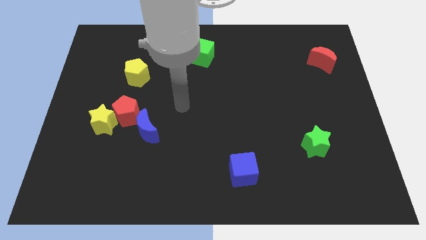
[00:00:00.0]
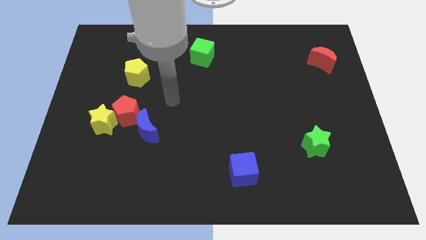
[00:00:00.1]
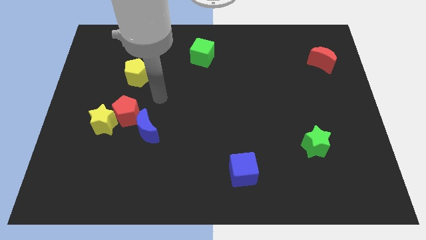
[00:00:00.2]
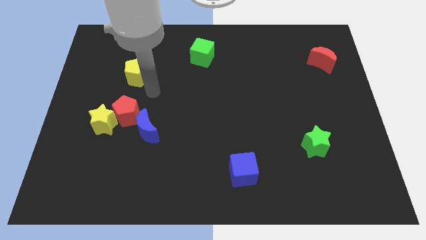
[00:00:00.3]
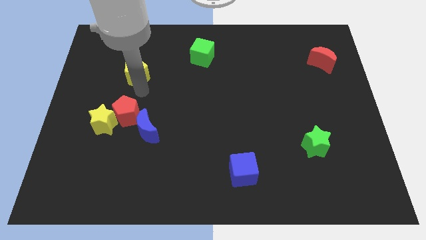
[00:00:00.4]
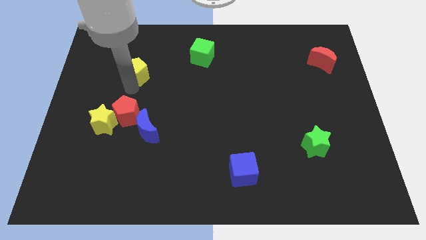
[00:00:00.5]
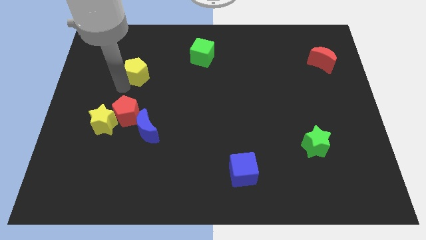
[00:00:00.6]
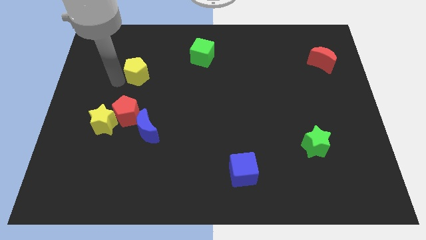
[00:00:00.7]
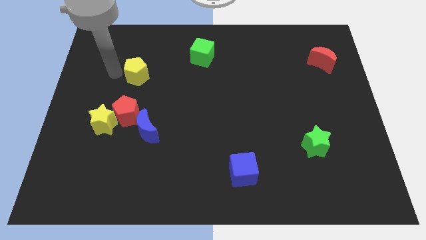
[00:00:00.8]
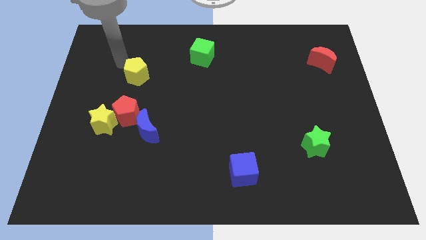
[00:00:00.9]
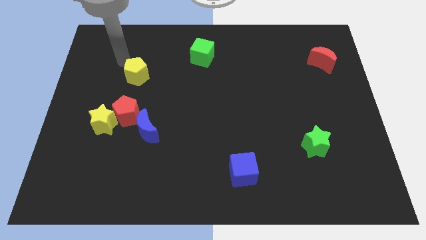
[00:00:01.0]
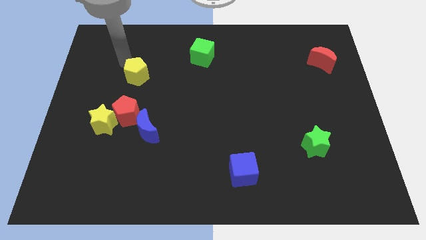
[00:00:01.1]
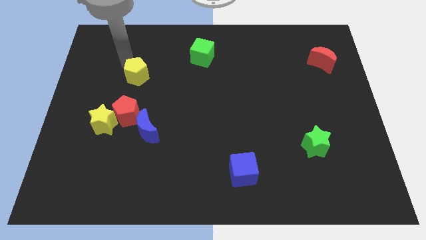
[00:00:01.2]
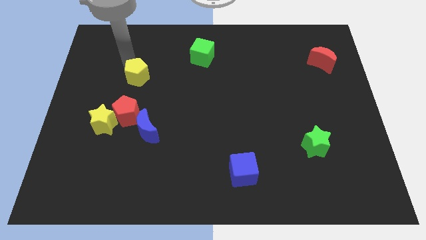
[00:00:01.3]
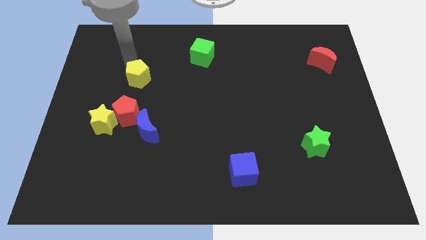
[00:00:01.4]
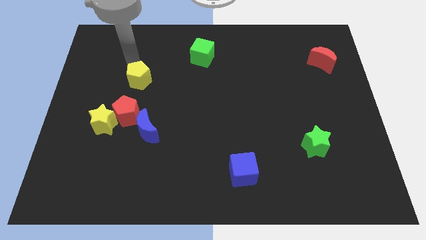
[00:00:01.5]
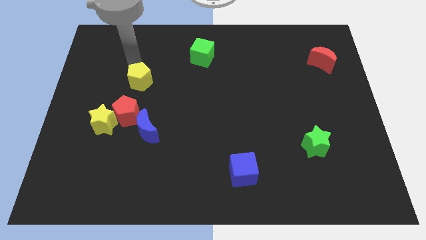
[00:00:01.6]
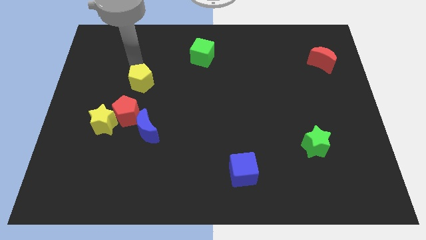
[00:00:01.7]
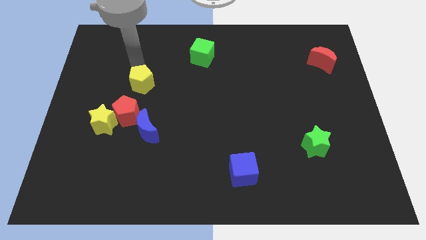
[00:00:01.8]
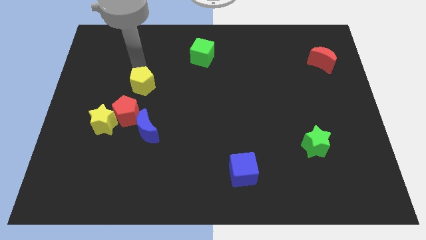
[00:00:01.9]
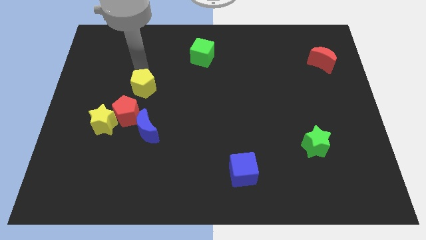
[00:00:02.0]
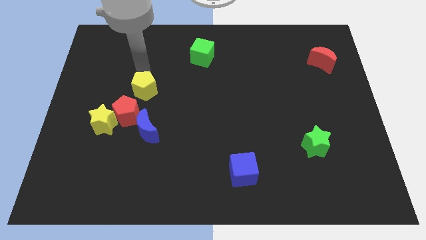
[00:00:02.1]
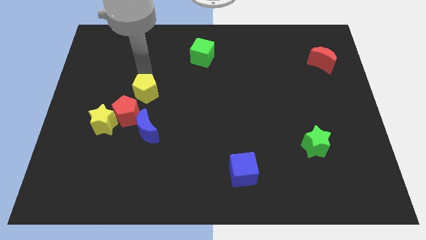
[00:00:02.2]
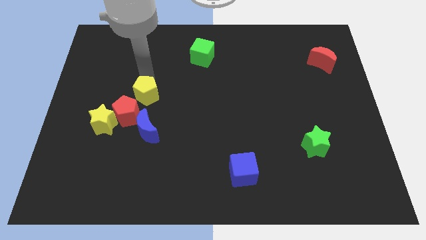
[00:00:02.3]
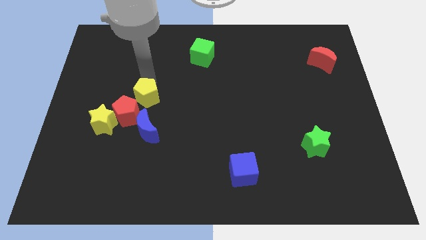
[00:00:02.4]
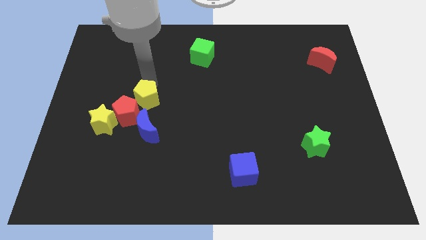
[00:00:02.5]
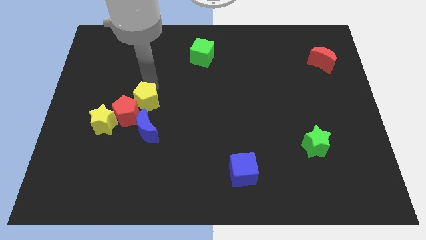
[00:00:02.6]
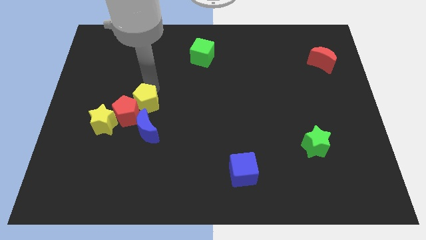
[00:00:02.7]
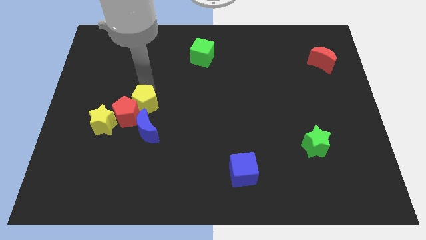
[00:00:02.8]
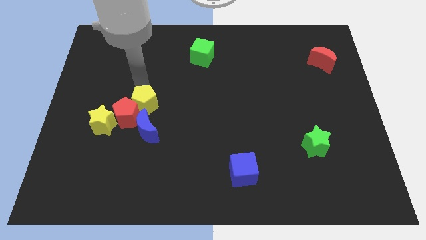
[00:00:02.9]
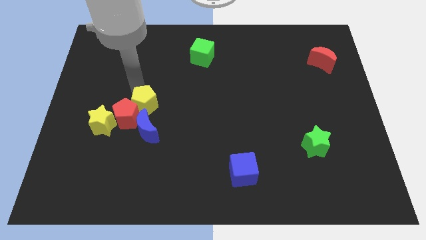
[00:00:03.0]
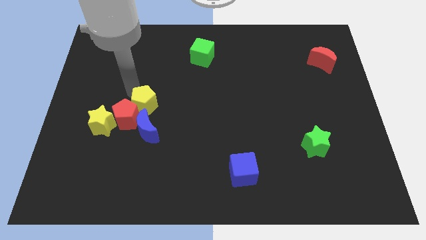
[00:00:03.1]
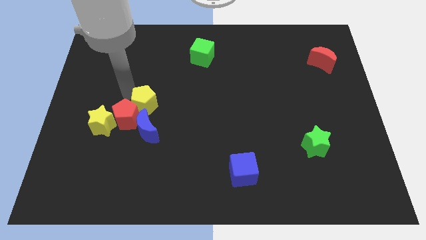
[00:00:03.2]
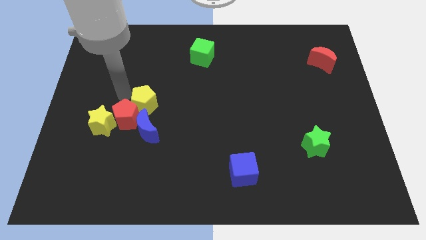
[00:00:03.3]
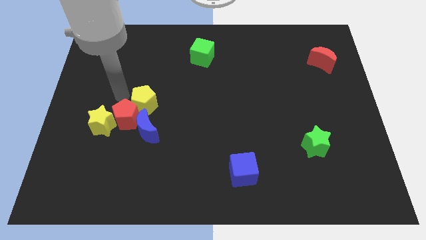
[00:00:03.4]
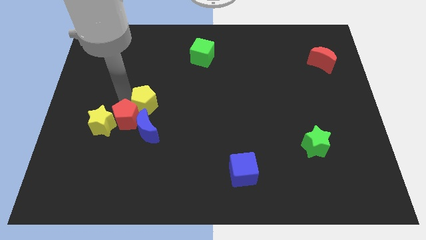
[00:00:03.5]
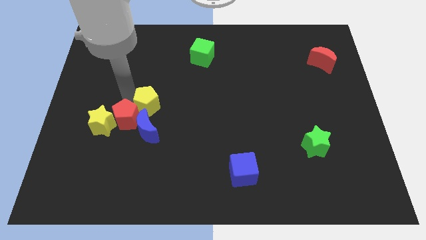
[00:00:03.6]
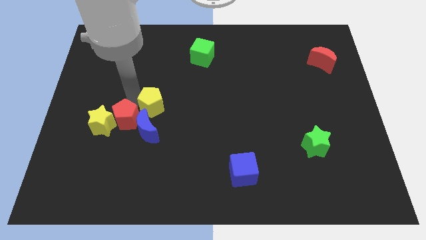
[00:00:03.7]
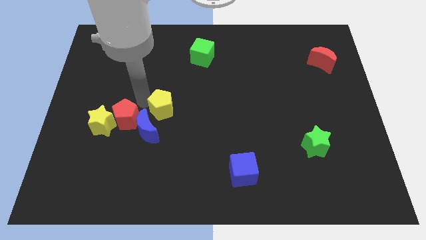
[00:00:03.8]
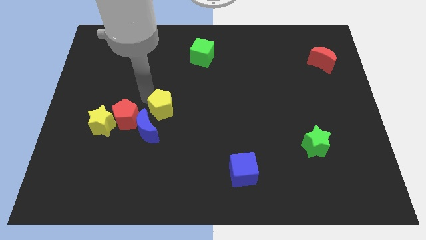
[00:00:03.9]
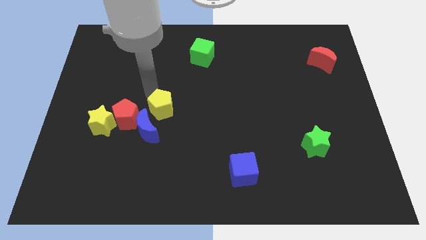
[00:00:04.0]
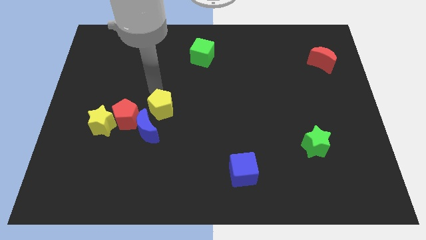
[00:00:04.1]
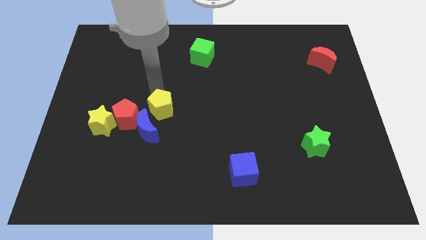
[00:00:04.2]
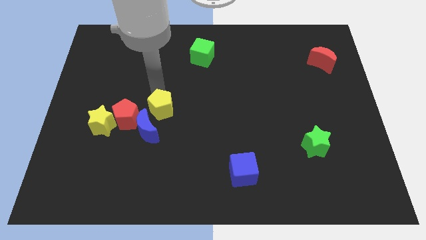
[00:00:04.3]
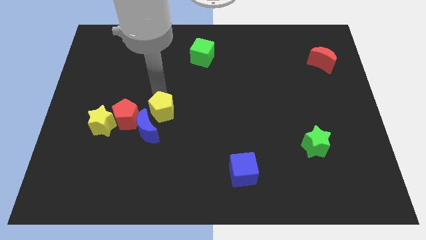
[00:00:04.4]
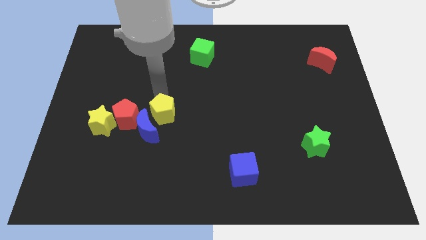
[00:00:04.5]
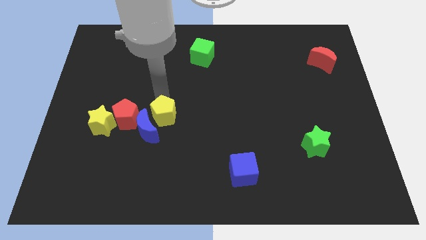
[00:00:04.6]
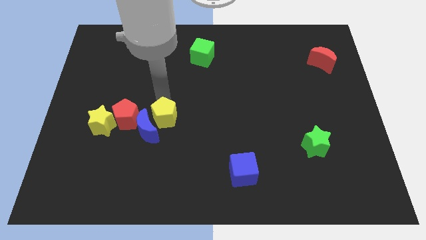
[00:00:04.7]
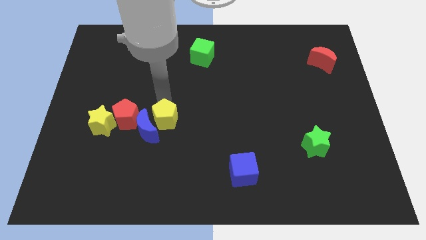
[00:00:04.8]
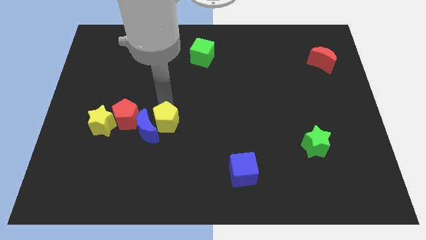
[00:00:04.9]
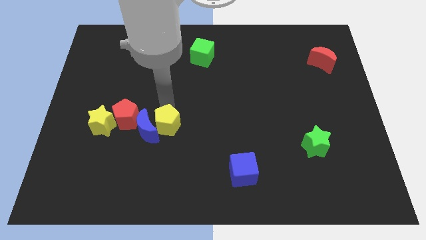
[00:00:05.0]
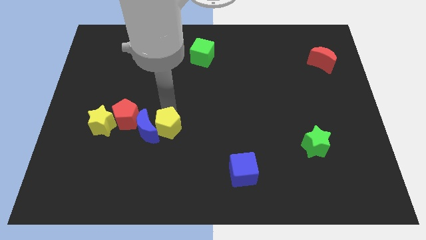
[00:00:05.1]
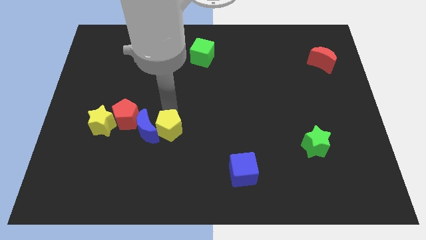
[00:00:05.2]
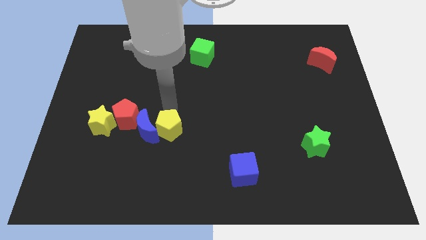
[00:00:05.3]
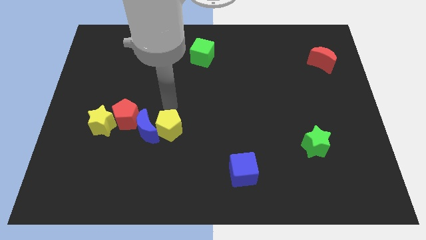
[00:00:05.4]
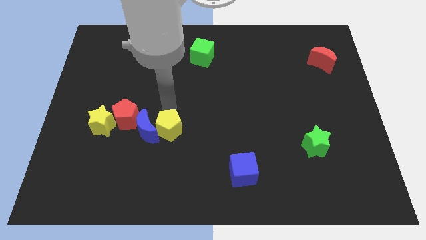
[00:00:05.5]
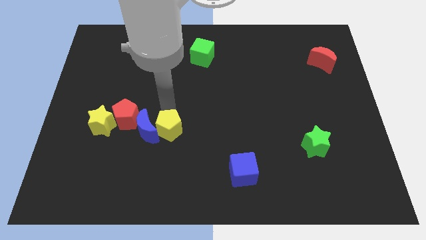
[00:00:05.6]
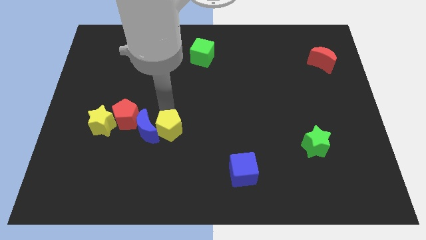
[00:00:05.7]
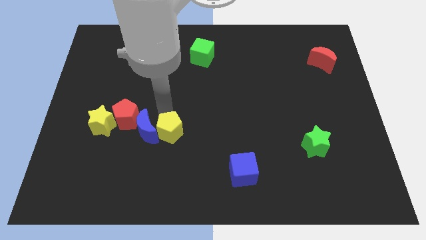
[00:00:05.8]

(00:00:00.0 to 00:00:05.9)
move the yellow pentagon diagonally down and to the right of the red pentagon

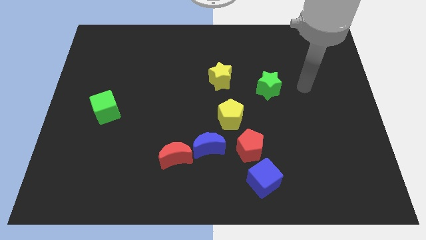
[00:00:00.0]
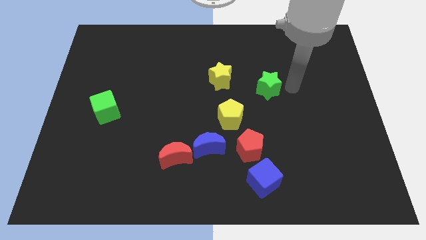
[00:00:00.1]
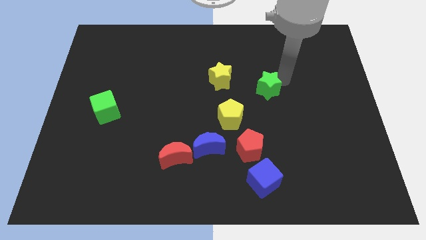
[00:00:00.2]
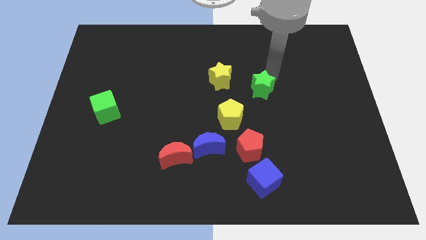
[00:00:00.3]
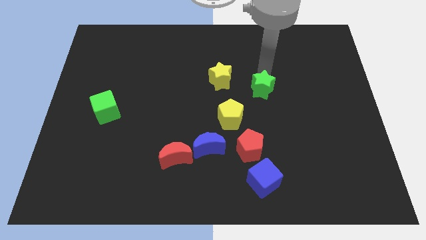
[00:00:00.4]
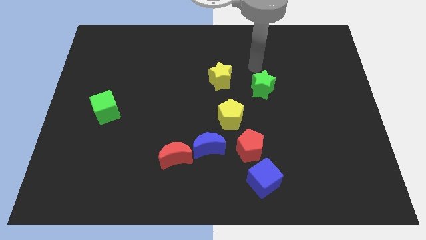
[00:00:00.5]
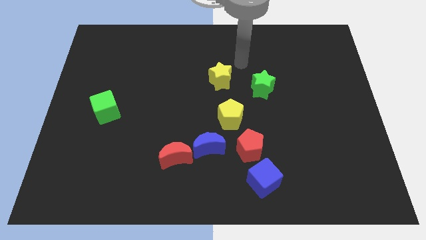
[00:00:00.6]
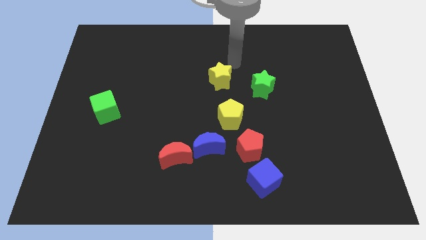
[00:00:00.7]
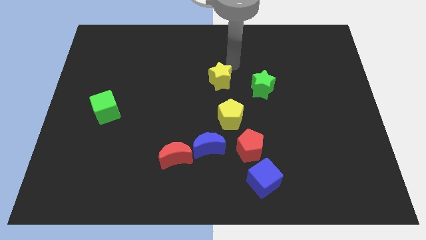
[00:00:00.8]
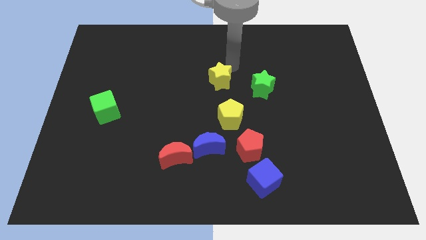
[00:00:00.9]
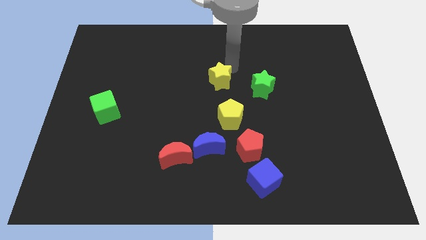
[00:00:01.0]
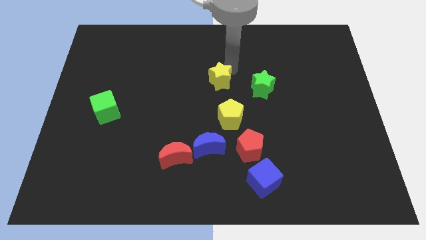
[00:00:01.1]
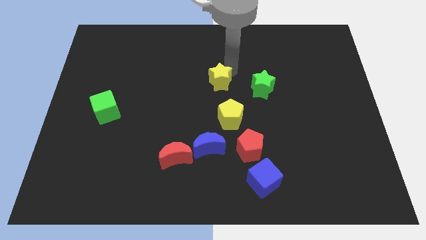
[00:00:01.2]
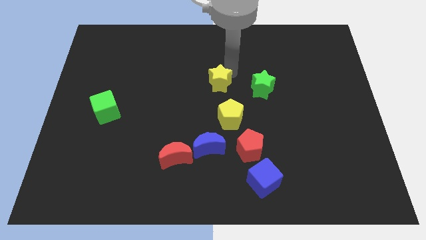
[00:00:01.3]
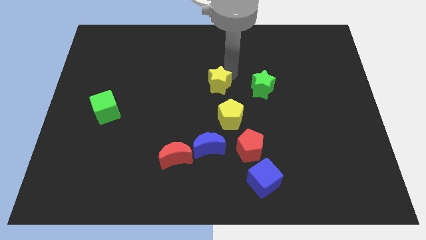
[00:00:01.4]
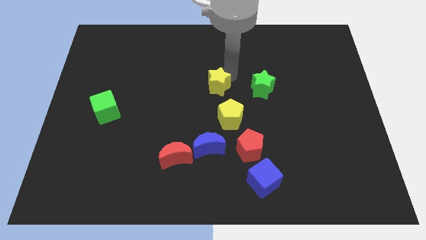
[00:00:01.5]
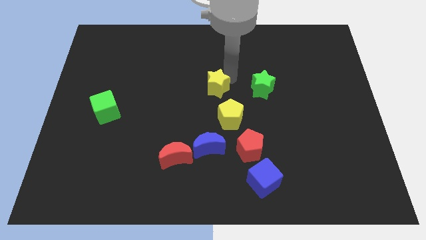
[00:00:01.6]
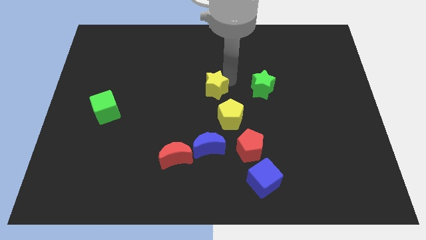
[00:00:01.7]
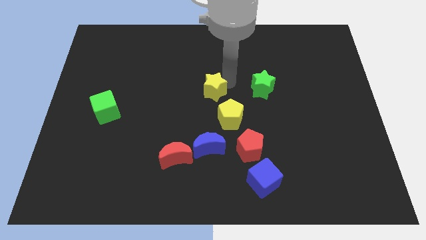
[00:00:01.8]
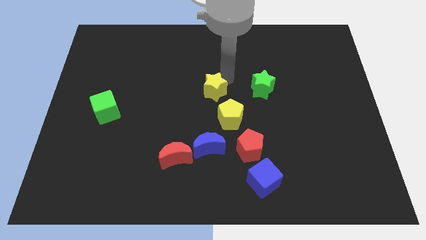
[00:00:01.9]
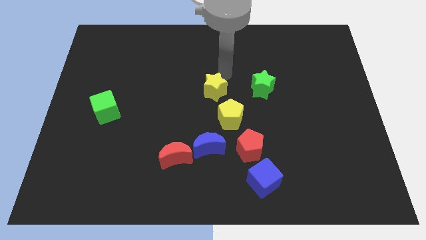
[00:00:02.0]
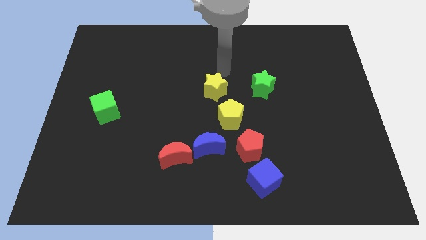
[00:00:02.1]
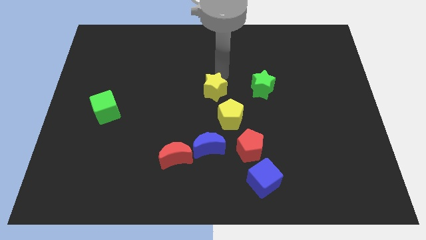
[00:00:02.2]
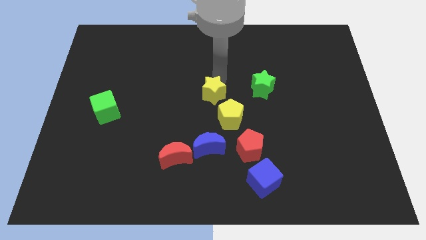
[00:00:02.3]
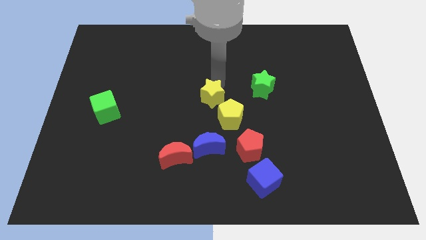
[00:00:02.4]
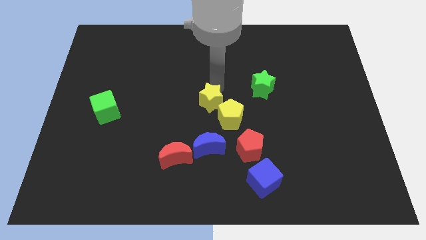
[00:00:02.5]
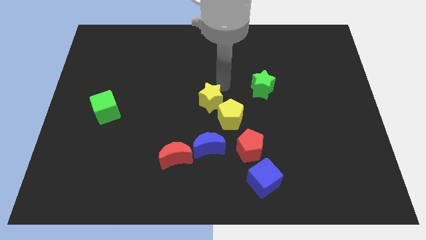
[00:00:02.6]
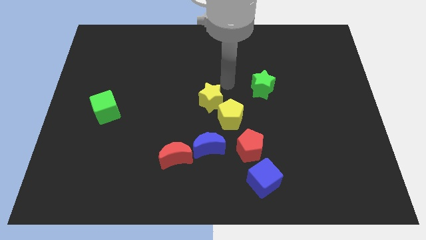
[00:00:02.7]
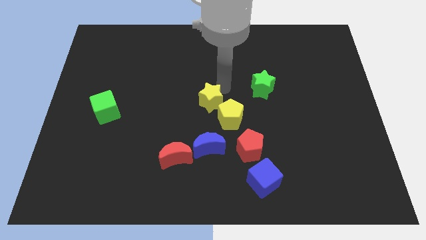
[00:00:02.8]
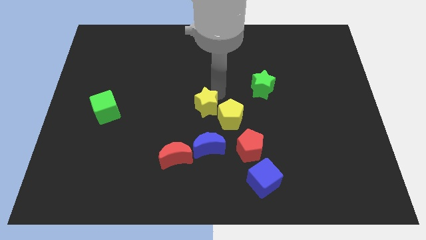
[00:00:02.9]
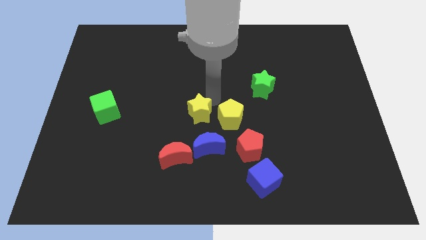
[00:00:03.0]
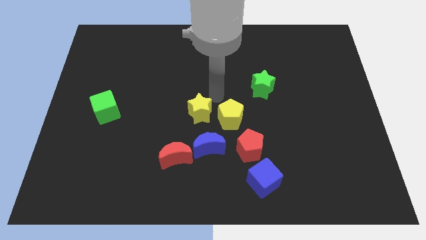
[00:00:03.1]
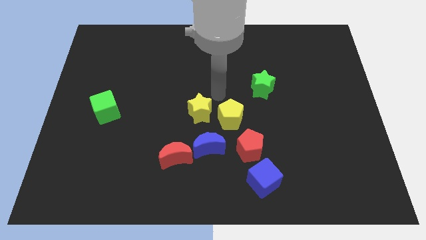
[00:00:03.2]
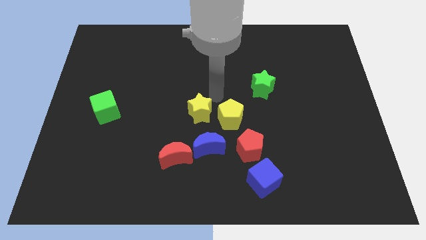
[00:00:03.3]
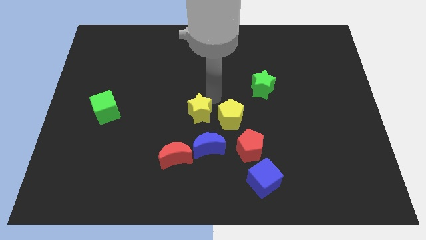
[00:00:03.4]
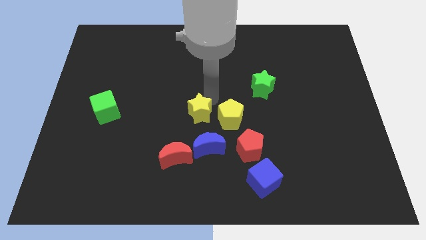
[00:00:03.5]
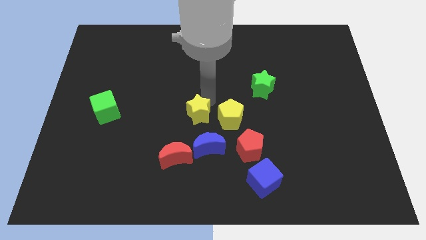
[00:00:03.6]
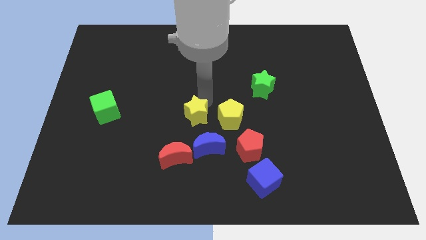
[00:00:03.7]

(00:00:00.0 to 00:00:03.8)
push the yellow star to the top left of the blue moon
